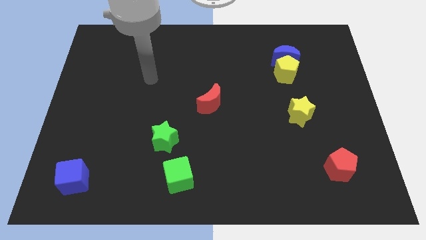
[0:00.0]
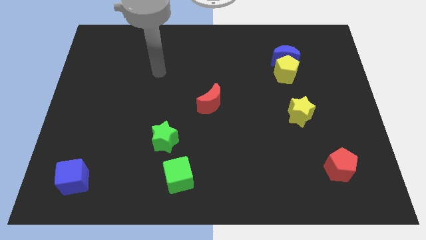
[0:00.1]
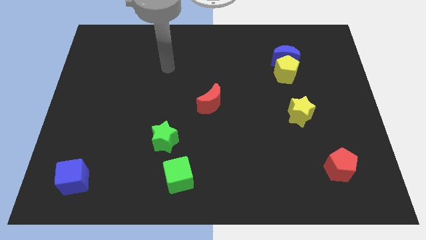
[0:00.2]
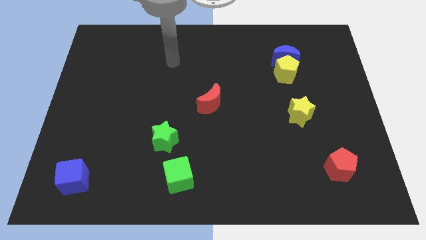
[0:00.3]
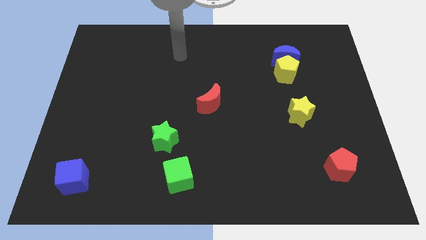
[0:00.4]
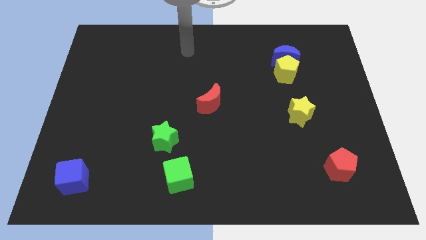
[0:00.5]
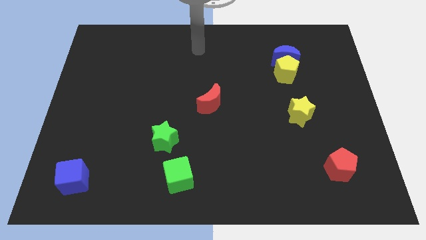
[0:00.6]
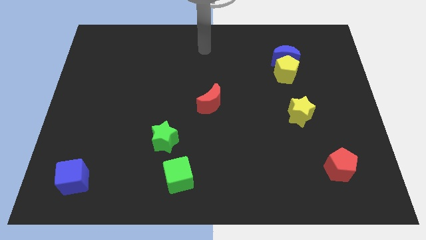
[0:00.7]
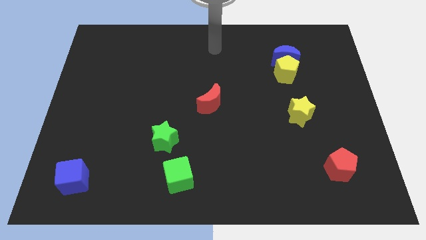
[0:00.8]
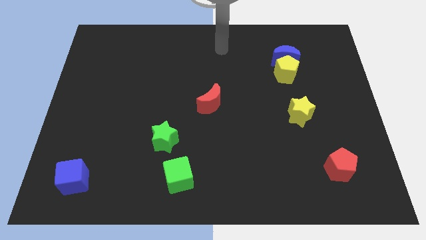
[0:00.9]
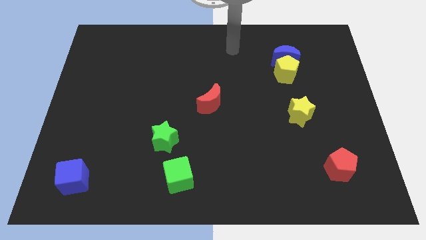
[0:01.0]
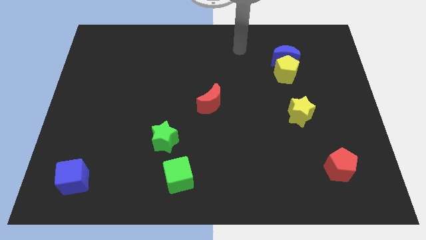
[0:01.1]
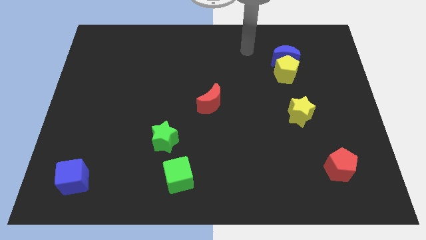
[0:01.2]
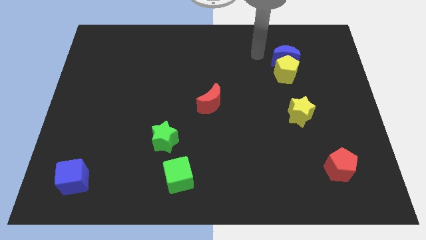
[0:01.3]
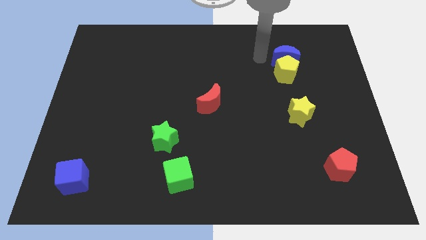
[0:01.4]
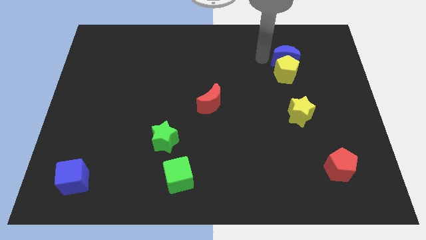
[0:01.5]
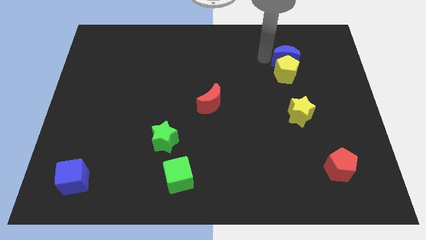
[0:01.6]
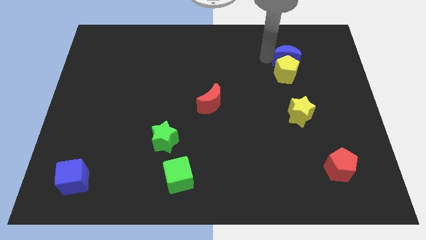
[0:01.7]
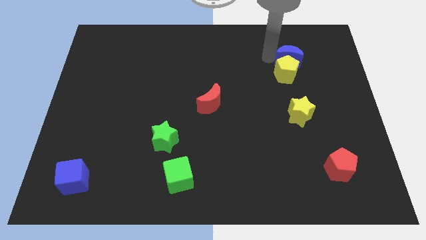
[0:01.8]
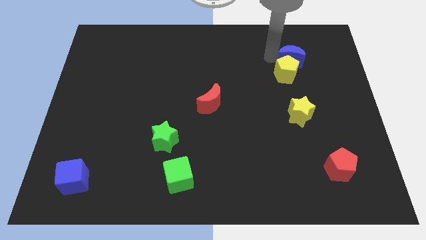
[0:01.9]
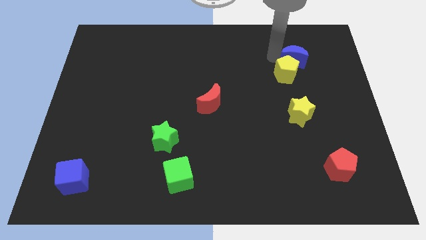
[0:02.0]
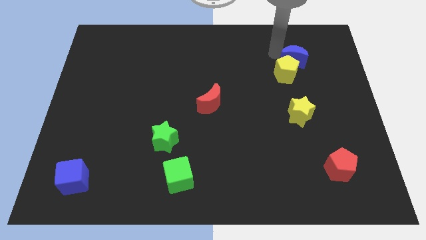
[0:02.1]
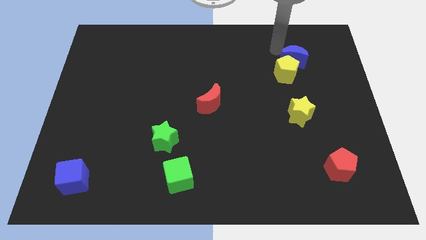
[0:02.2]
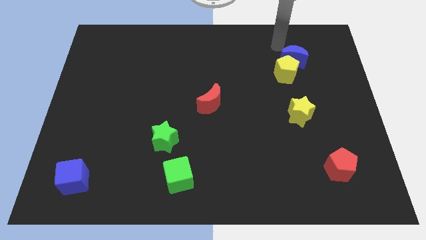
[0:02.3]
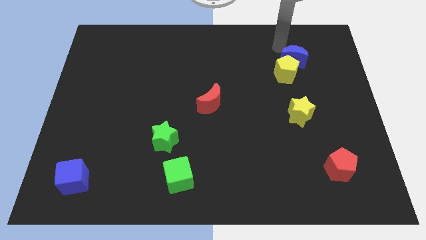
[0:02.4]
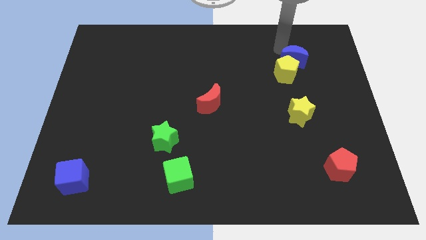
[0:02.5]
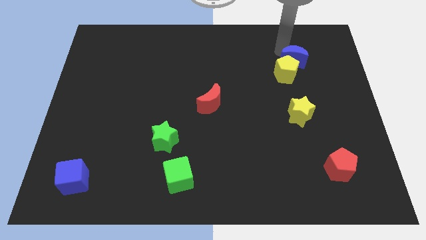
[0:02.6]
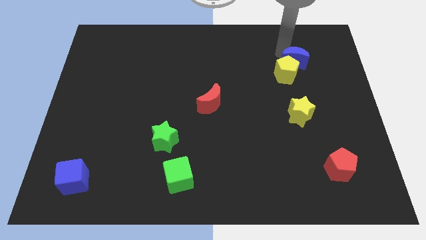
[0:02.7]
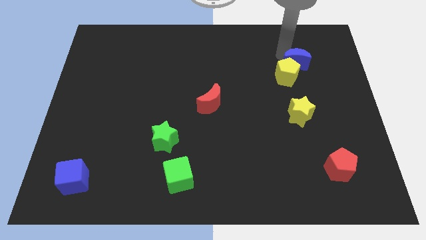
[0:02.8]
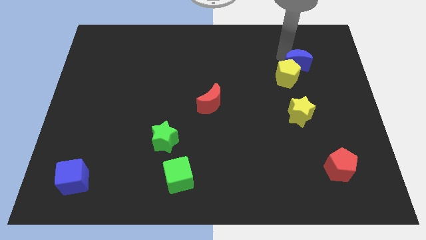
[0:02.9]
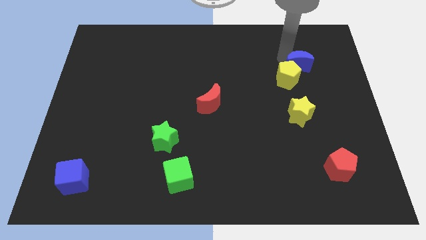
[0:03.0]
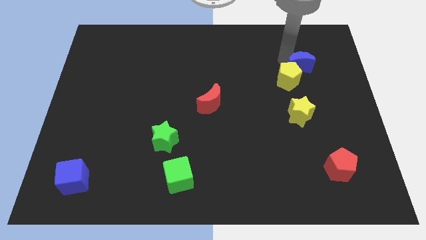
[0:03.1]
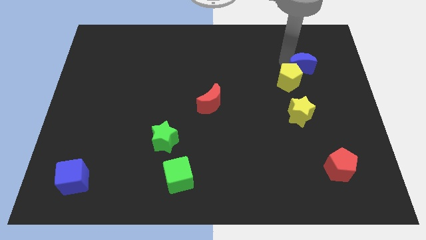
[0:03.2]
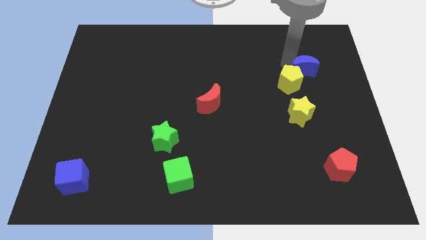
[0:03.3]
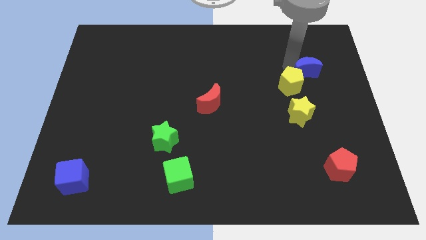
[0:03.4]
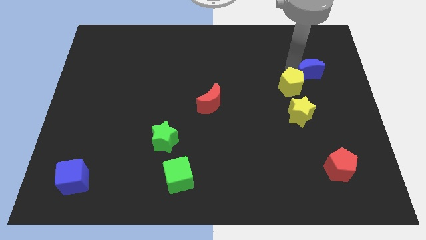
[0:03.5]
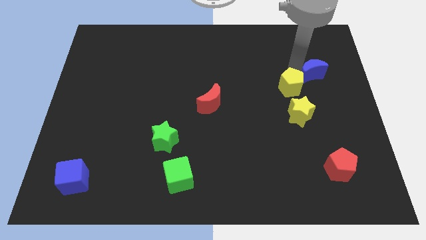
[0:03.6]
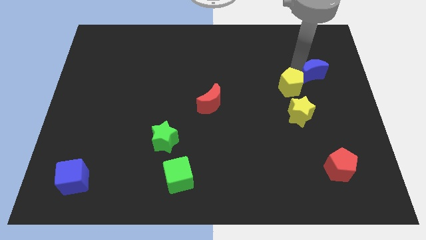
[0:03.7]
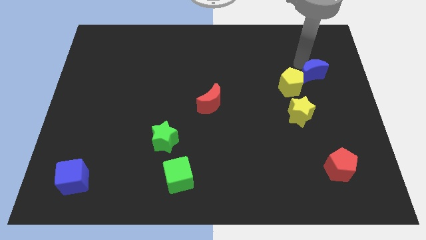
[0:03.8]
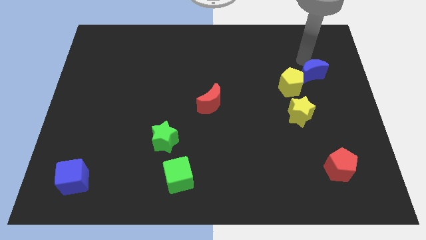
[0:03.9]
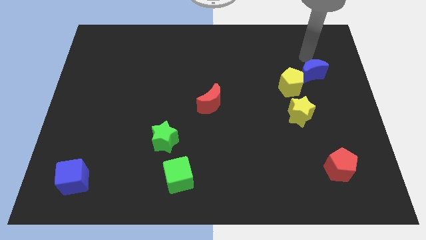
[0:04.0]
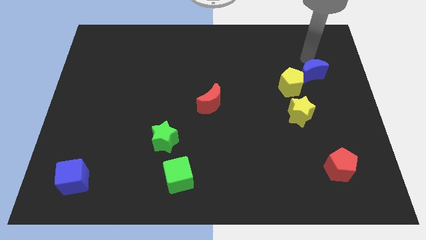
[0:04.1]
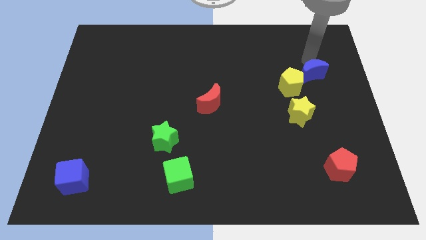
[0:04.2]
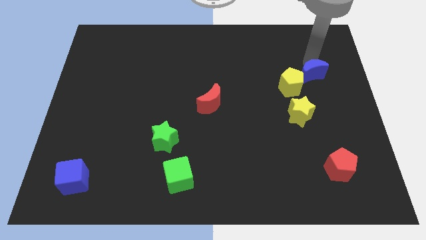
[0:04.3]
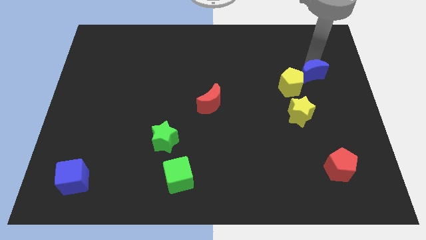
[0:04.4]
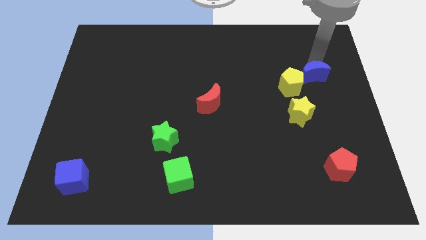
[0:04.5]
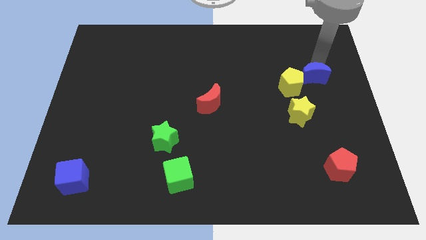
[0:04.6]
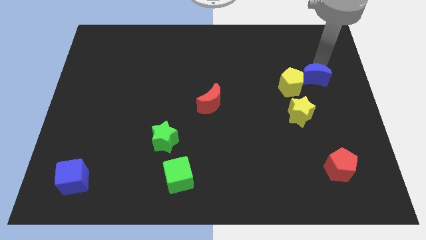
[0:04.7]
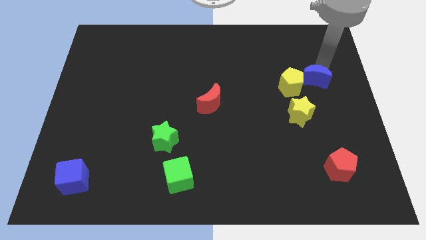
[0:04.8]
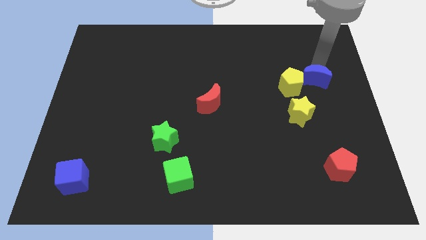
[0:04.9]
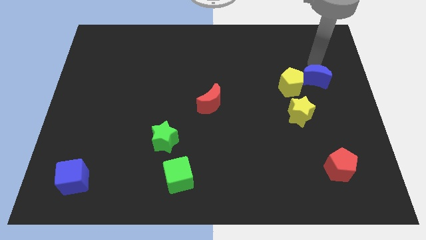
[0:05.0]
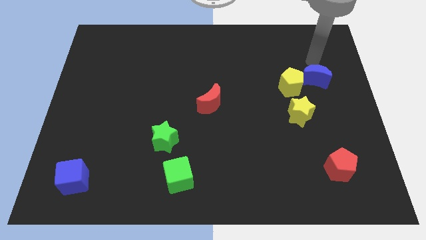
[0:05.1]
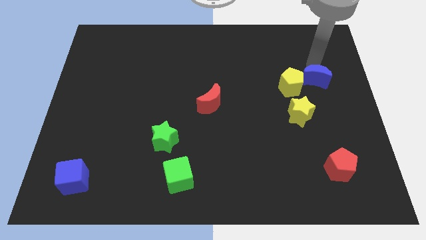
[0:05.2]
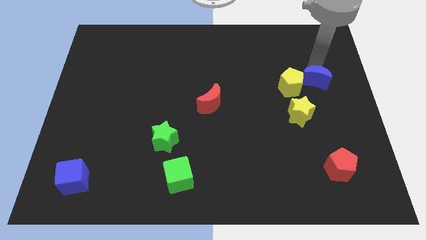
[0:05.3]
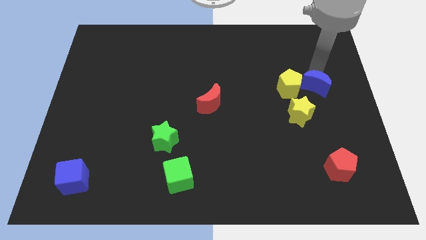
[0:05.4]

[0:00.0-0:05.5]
move the blue moon to the top right side of the yellow star

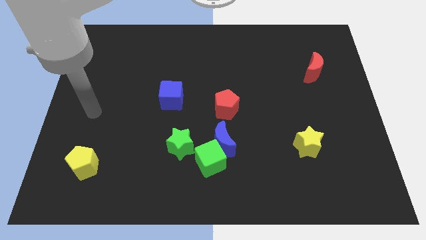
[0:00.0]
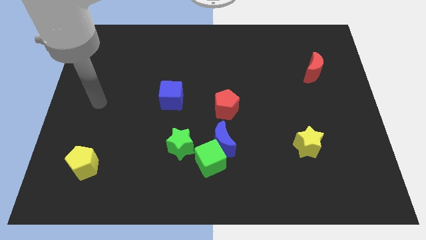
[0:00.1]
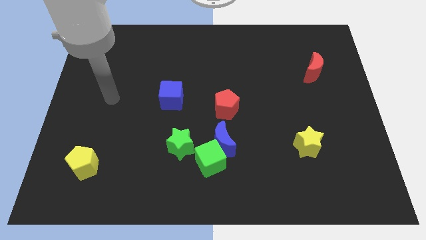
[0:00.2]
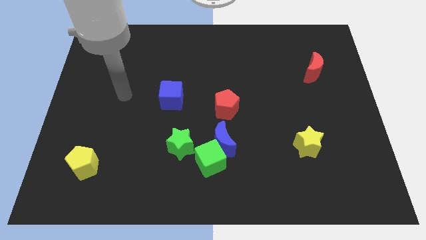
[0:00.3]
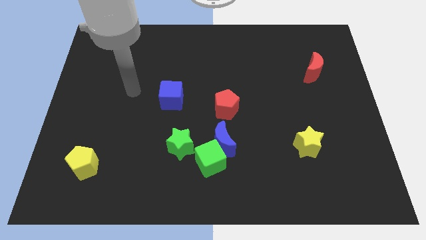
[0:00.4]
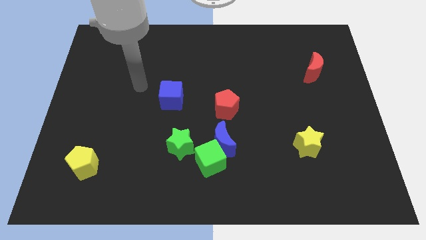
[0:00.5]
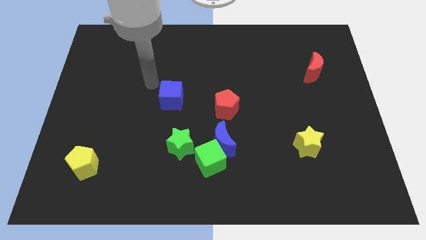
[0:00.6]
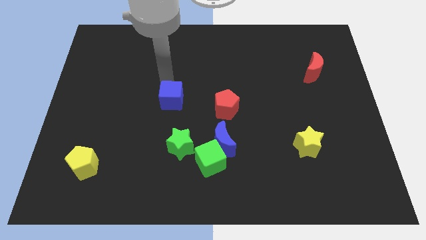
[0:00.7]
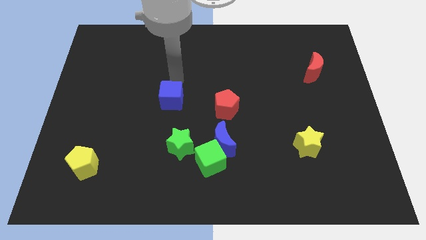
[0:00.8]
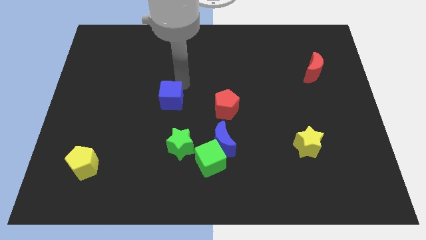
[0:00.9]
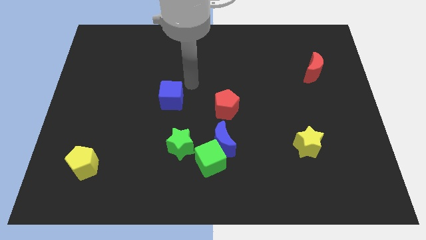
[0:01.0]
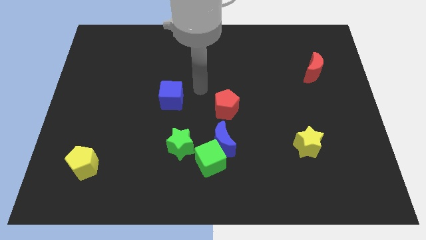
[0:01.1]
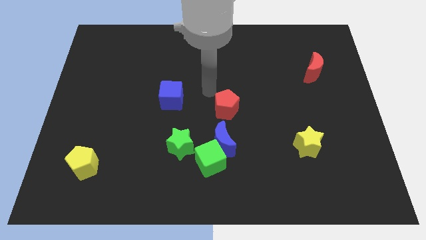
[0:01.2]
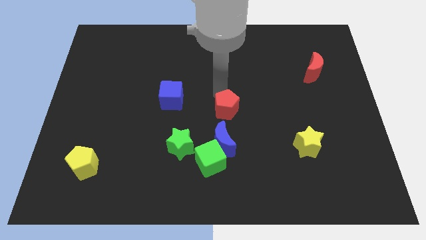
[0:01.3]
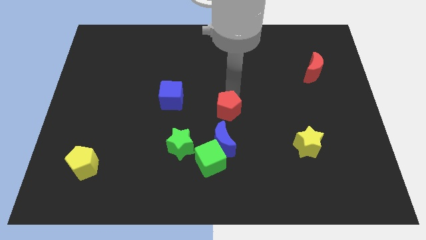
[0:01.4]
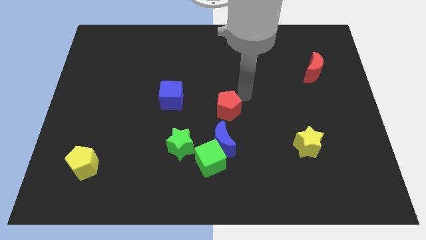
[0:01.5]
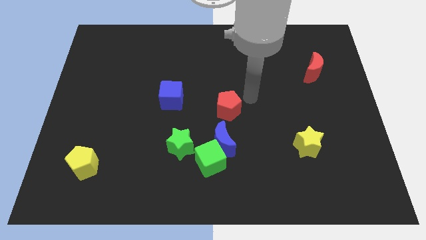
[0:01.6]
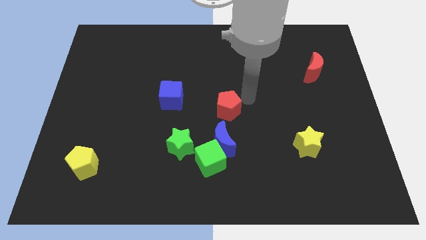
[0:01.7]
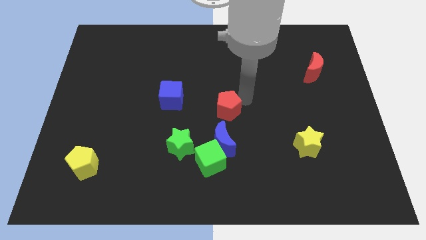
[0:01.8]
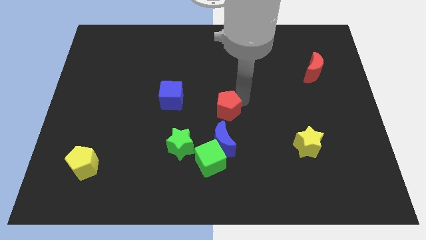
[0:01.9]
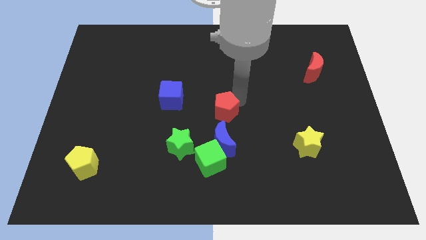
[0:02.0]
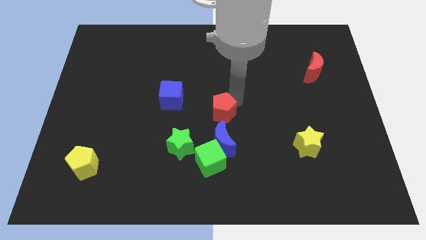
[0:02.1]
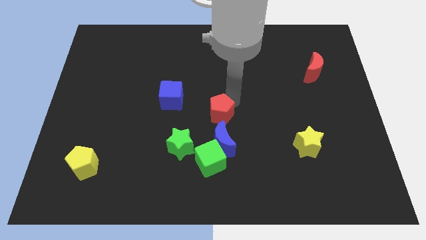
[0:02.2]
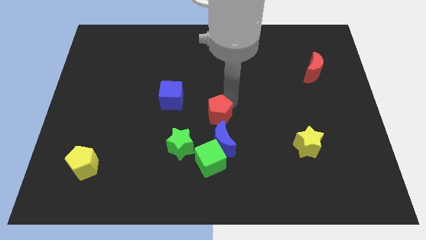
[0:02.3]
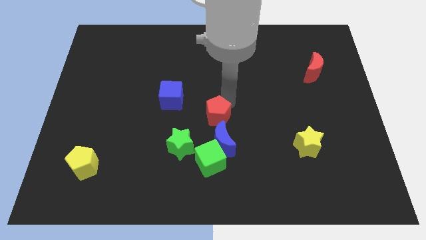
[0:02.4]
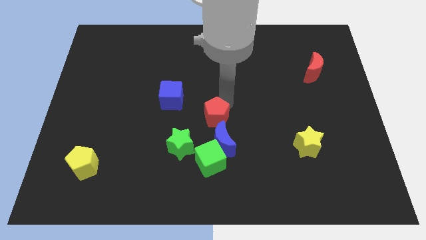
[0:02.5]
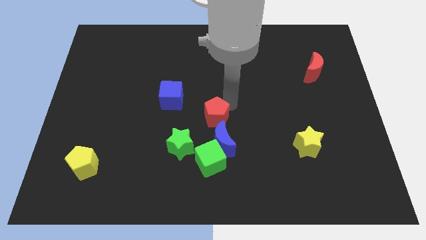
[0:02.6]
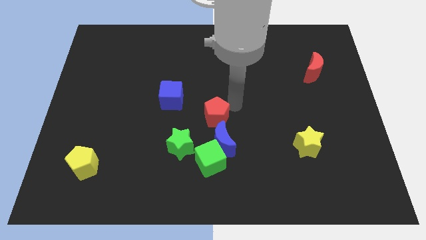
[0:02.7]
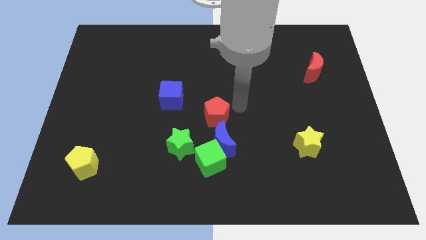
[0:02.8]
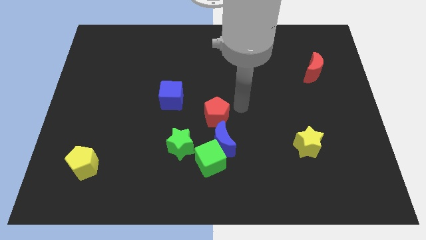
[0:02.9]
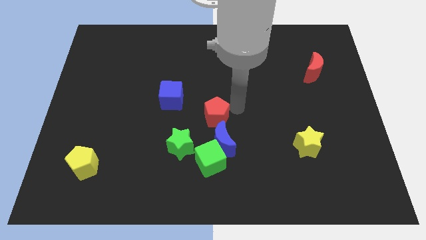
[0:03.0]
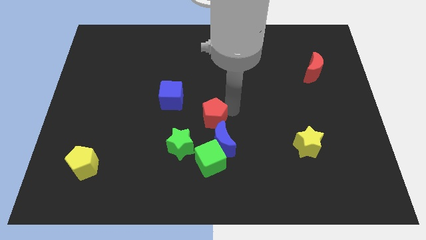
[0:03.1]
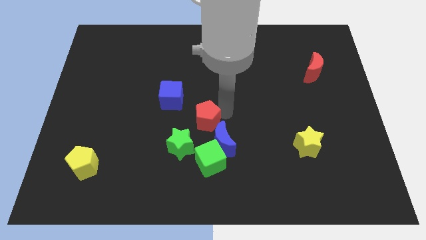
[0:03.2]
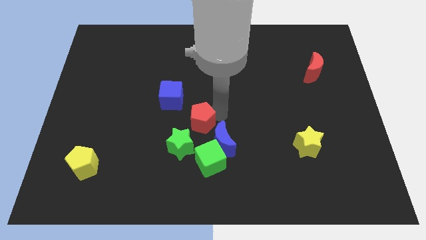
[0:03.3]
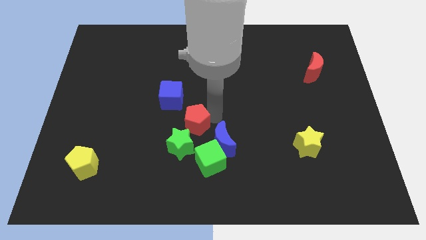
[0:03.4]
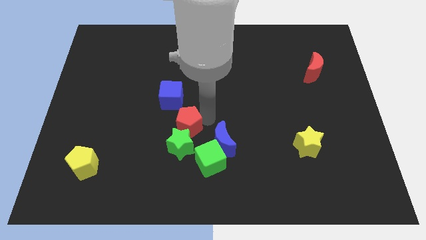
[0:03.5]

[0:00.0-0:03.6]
put the red pentagon to the left of the blue moon
